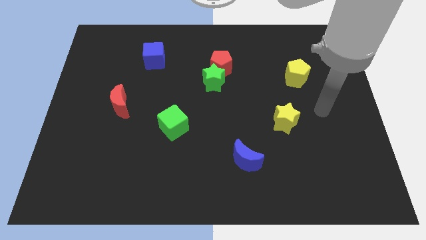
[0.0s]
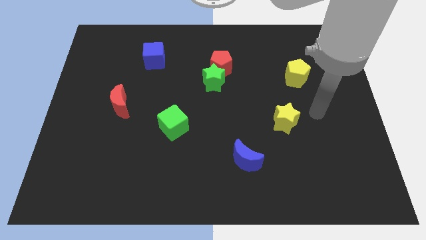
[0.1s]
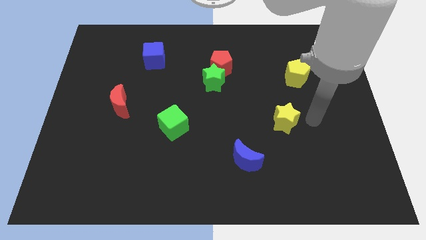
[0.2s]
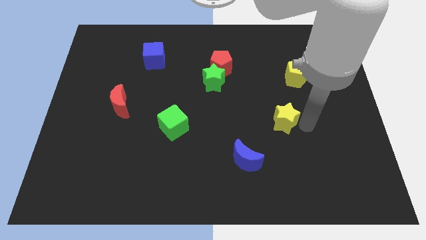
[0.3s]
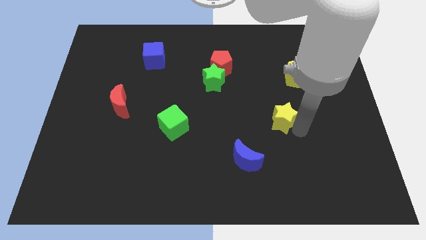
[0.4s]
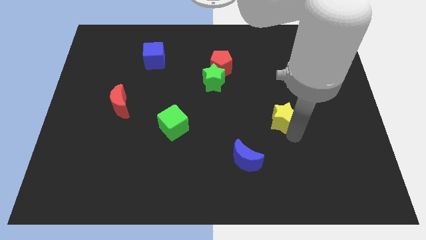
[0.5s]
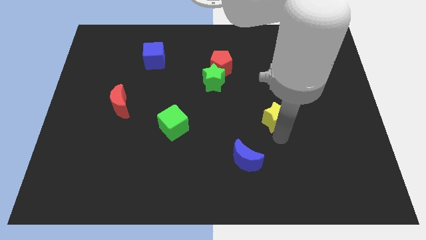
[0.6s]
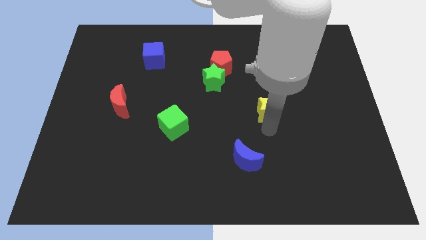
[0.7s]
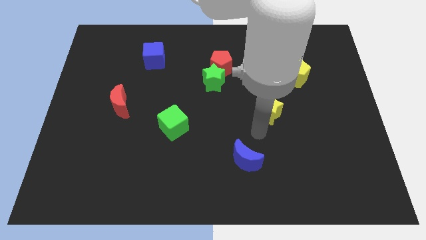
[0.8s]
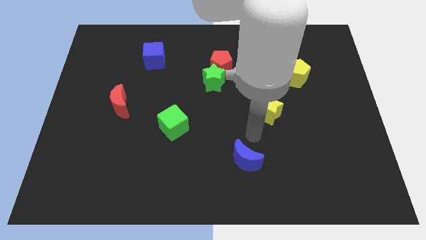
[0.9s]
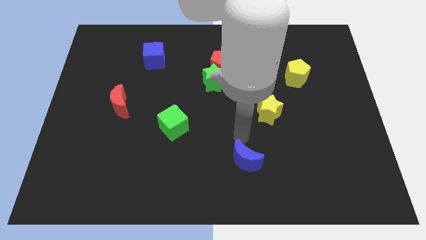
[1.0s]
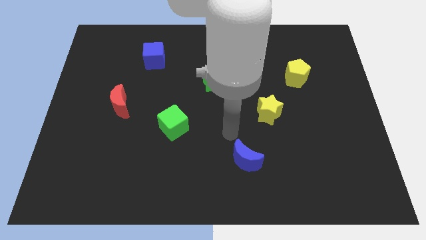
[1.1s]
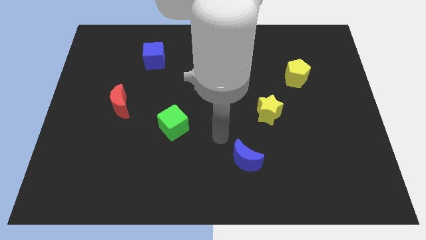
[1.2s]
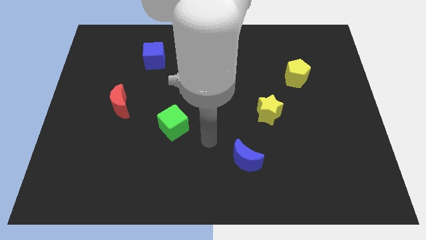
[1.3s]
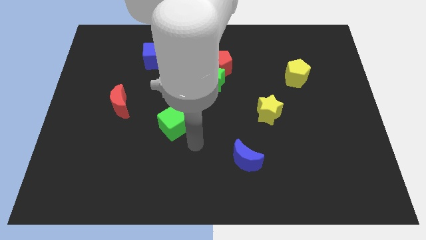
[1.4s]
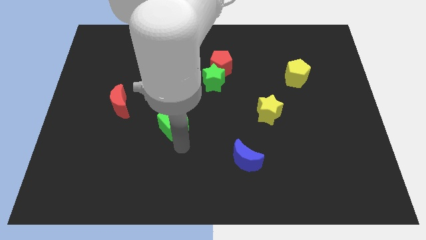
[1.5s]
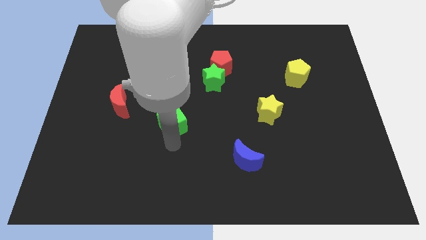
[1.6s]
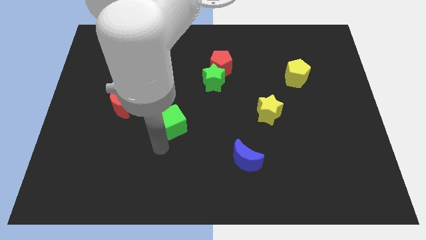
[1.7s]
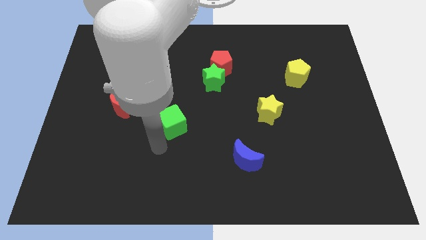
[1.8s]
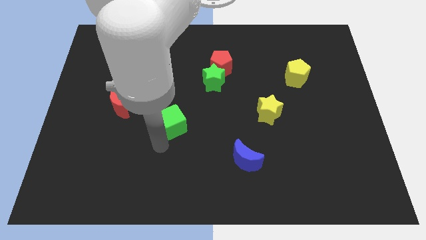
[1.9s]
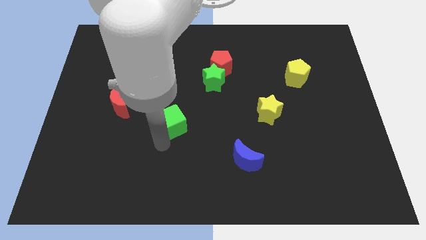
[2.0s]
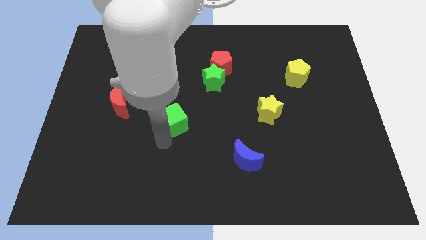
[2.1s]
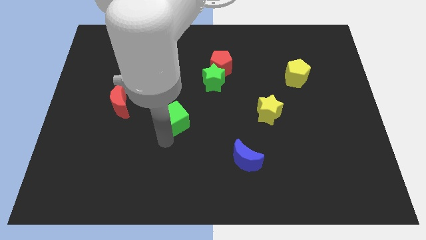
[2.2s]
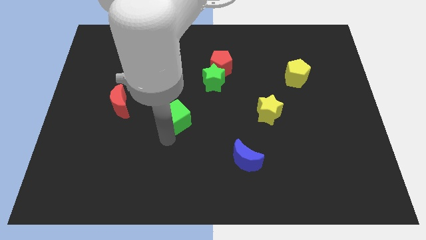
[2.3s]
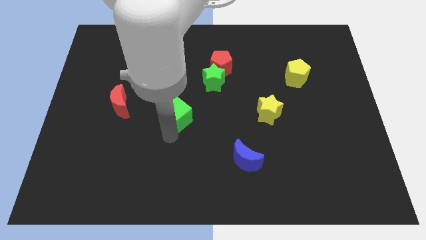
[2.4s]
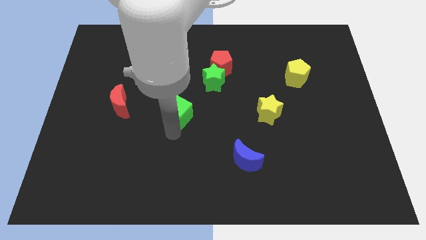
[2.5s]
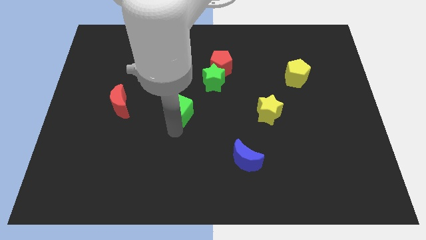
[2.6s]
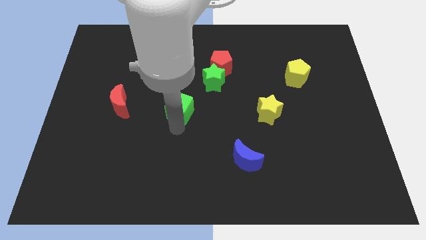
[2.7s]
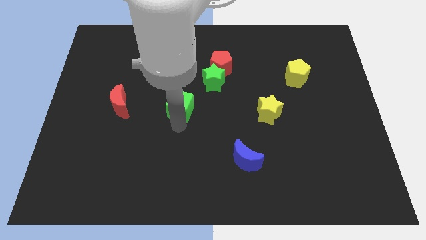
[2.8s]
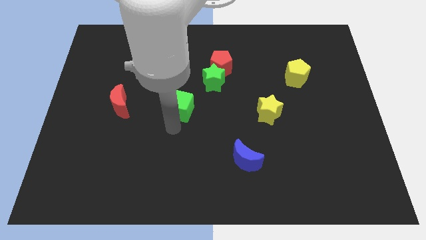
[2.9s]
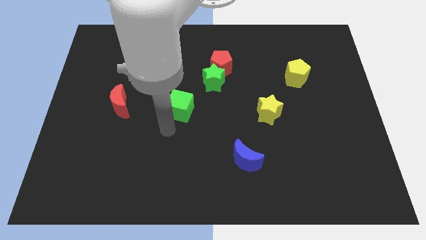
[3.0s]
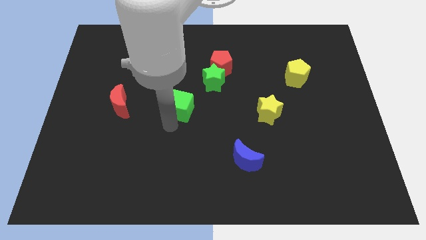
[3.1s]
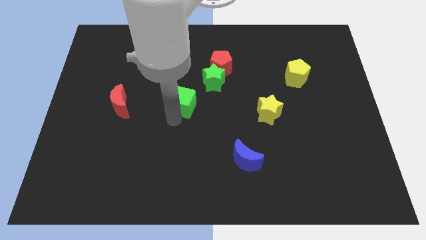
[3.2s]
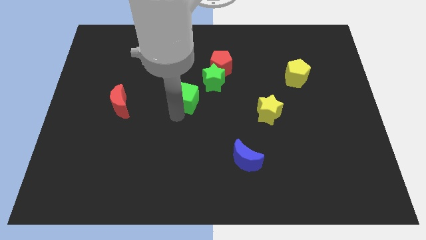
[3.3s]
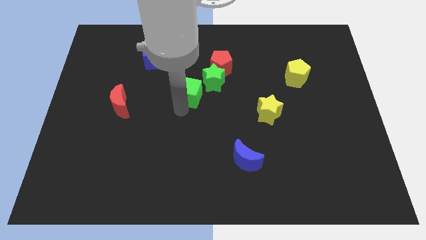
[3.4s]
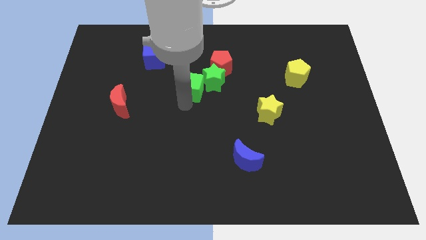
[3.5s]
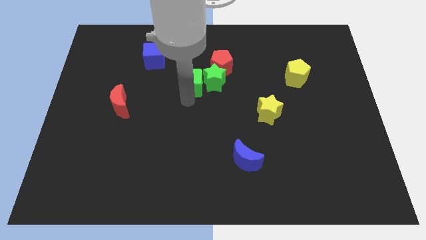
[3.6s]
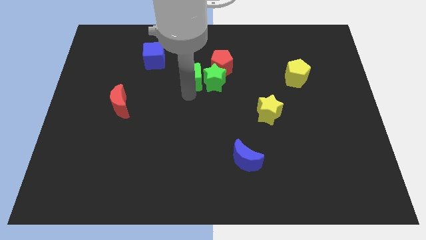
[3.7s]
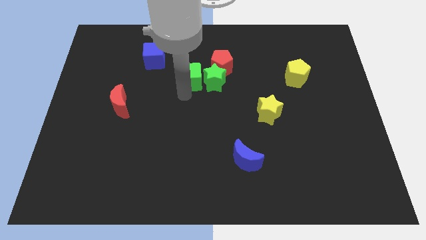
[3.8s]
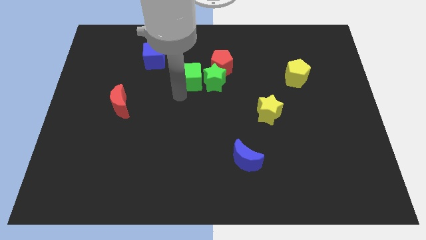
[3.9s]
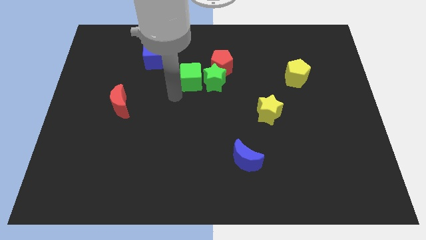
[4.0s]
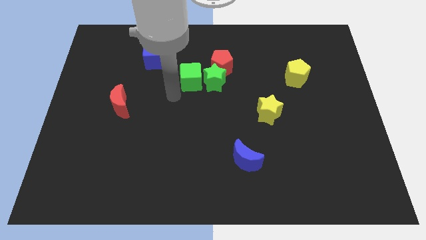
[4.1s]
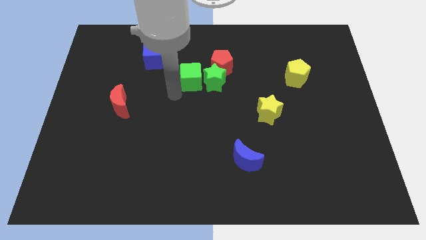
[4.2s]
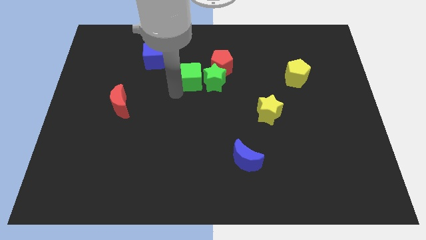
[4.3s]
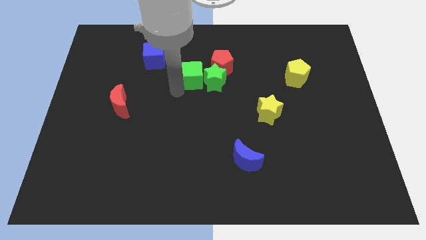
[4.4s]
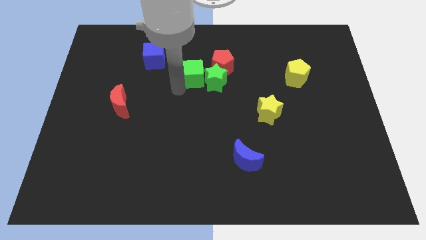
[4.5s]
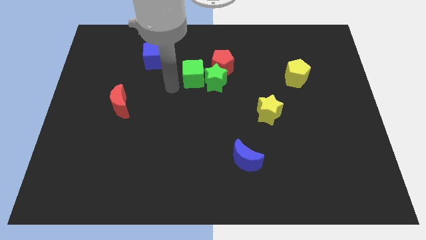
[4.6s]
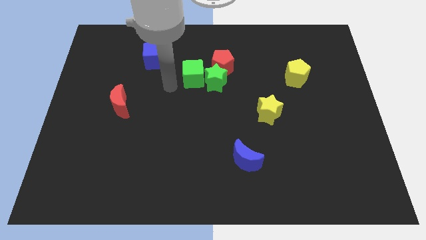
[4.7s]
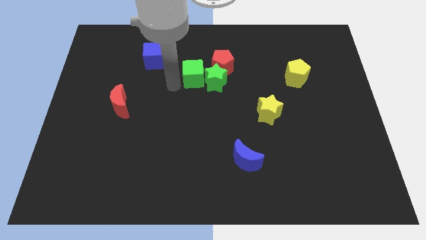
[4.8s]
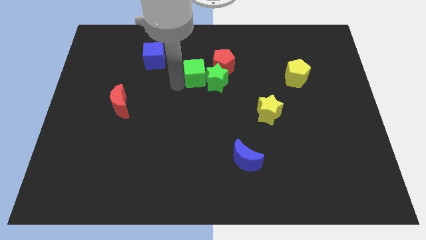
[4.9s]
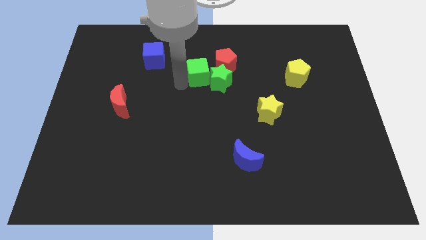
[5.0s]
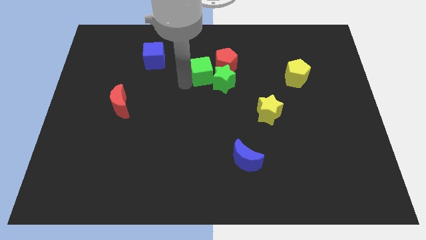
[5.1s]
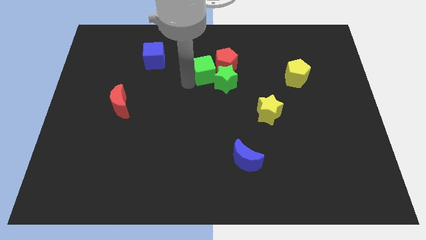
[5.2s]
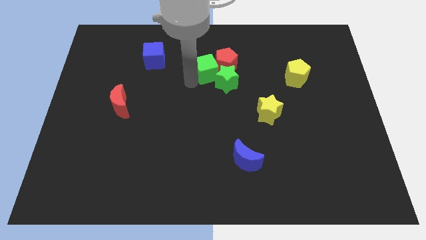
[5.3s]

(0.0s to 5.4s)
move the green cube next to the red pentagon

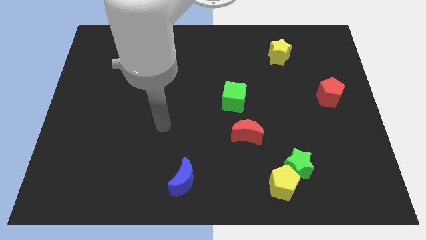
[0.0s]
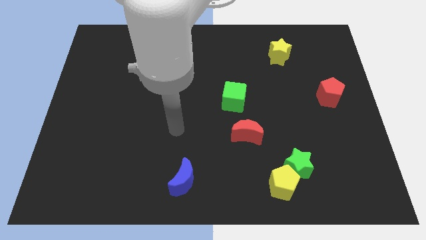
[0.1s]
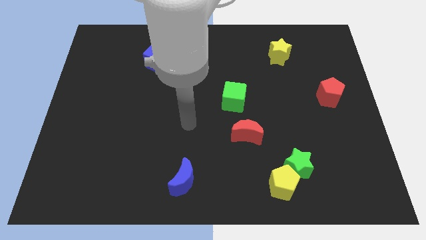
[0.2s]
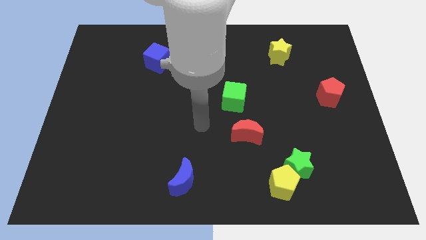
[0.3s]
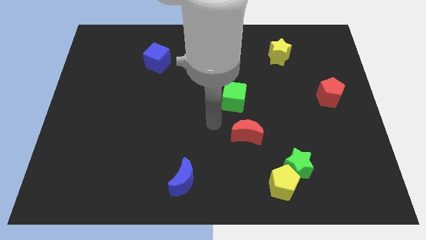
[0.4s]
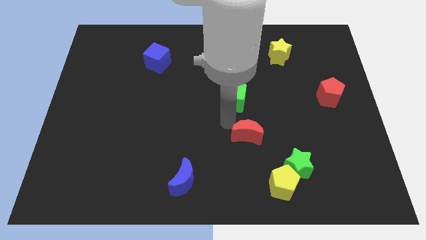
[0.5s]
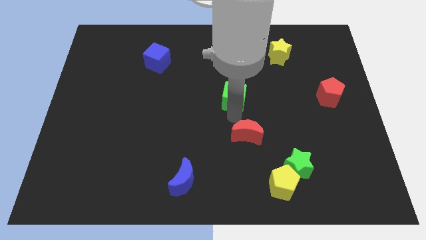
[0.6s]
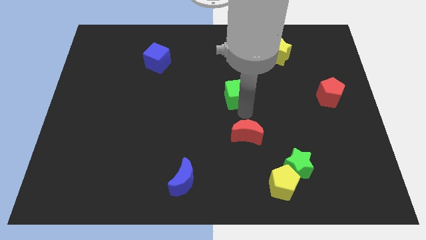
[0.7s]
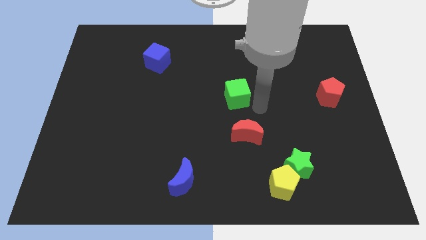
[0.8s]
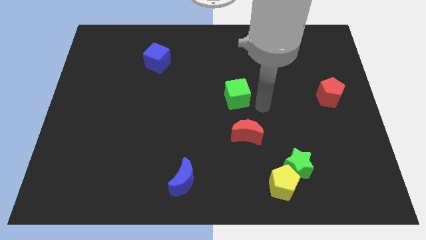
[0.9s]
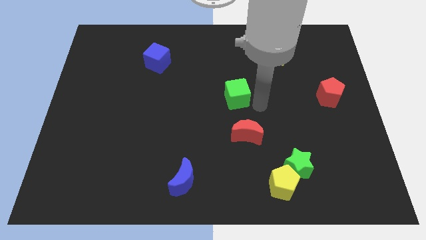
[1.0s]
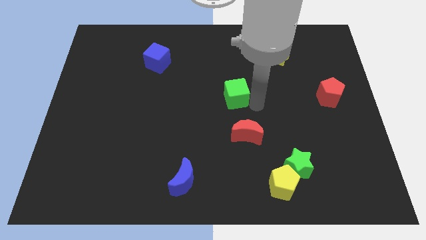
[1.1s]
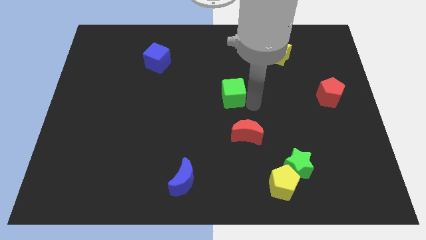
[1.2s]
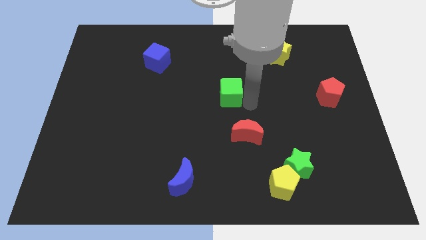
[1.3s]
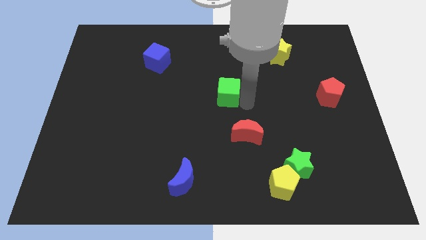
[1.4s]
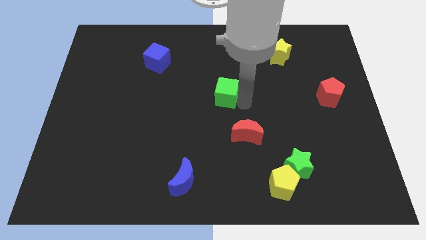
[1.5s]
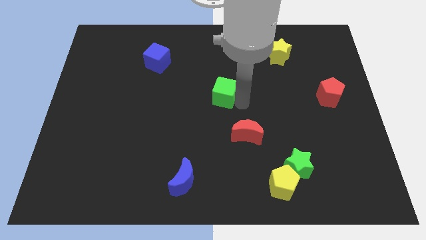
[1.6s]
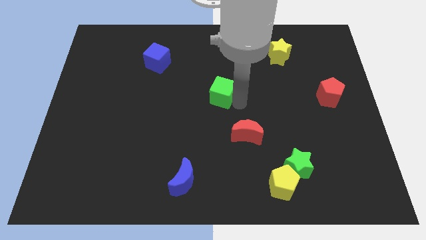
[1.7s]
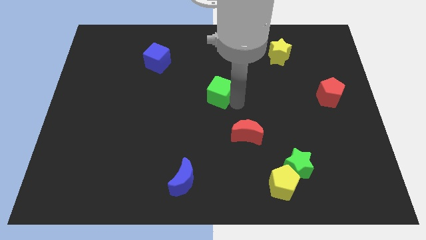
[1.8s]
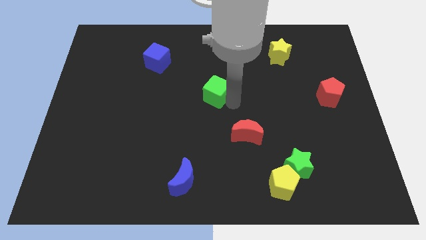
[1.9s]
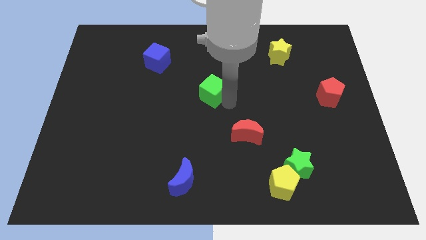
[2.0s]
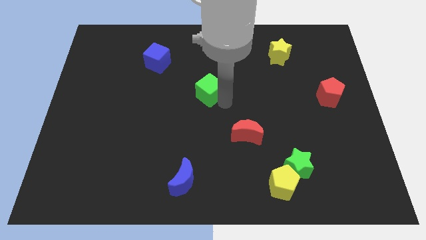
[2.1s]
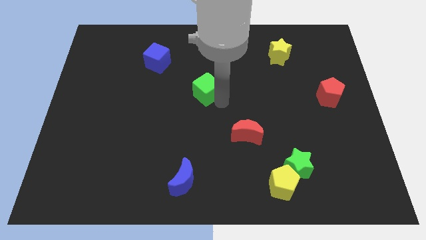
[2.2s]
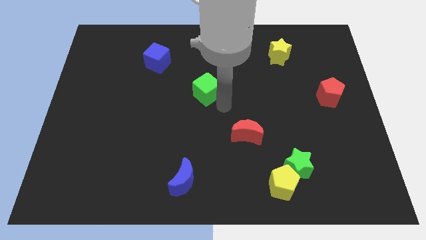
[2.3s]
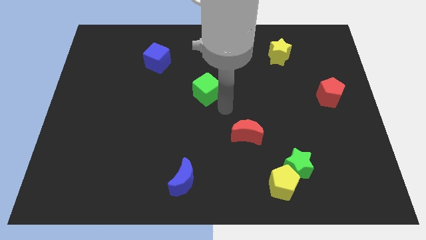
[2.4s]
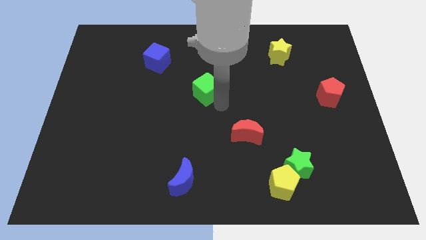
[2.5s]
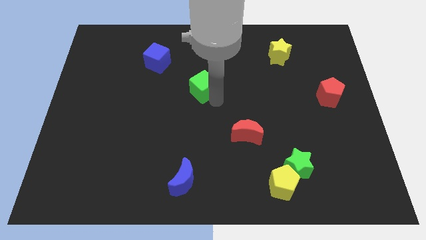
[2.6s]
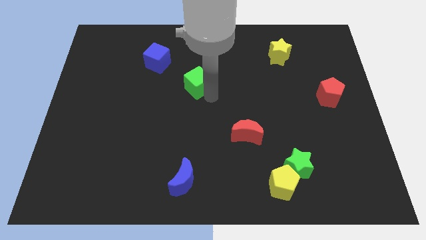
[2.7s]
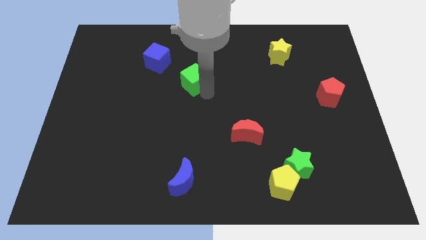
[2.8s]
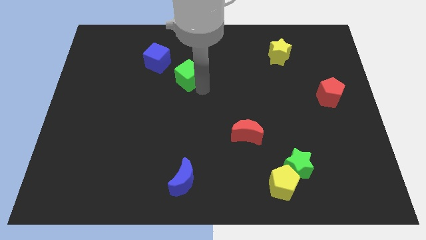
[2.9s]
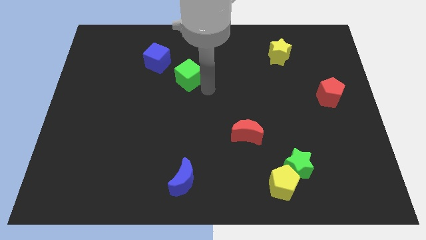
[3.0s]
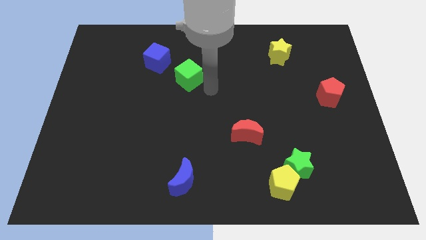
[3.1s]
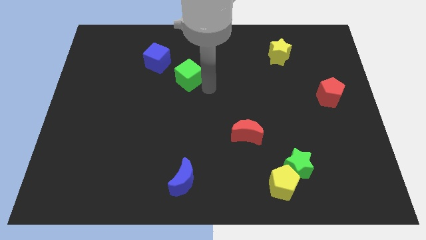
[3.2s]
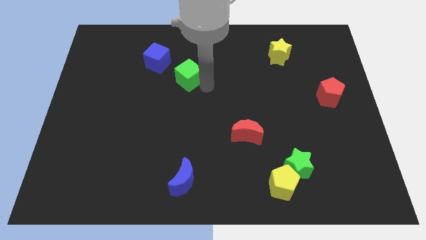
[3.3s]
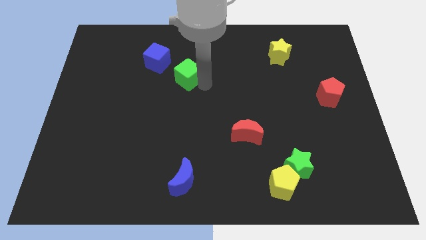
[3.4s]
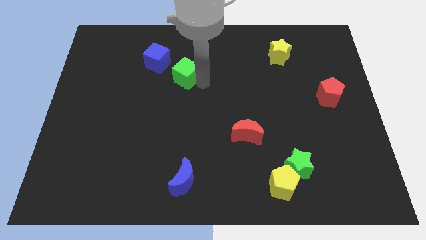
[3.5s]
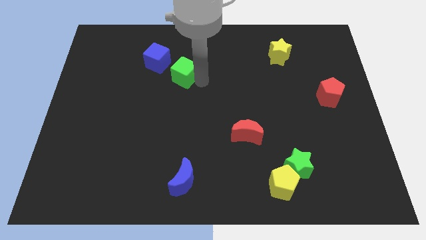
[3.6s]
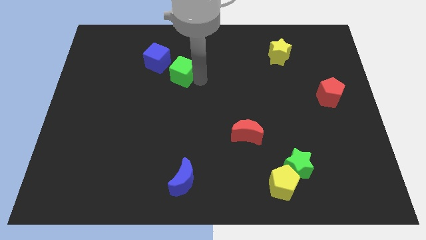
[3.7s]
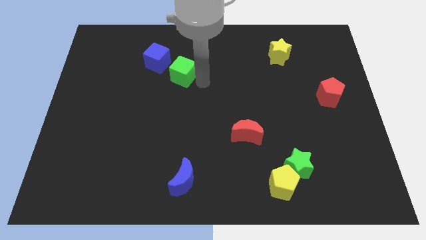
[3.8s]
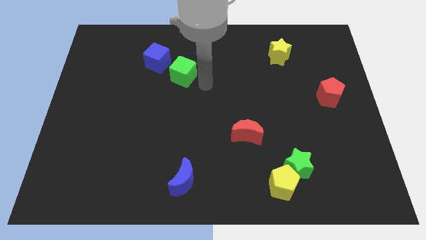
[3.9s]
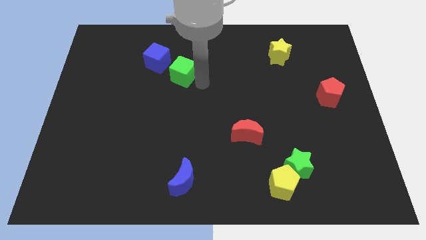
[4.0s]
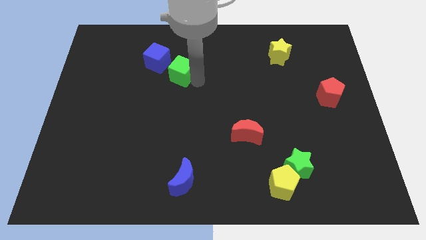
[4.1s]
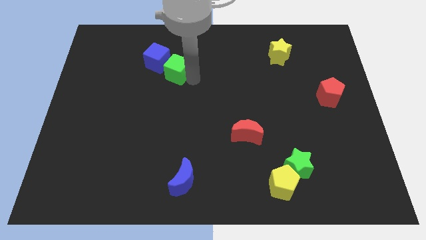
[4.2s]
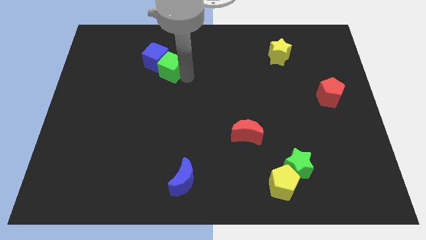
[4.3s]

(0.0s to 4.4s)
put the green cube towards the blue cube
